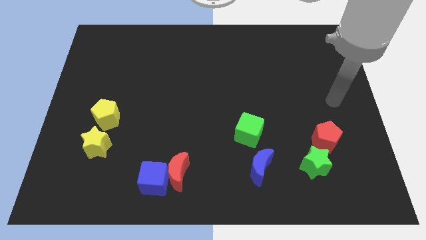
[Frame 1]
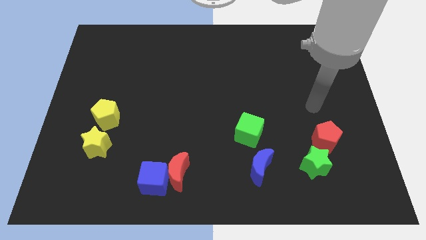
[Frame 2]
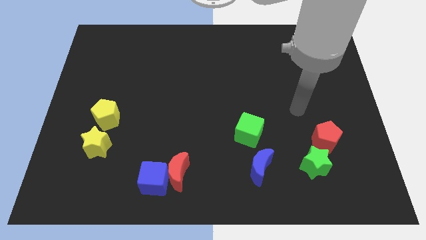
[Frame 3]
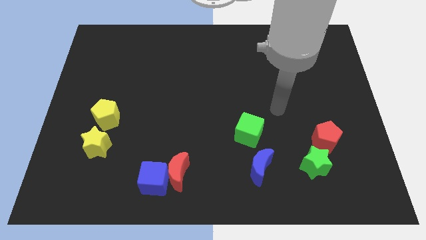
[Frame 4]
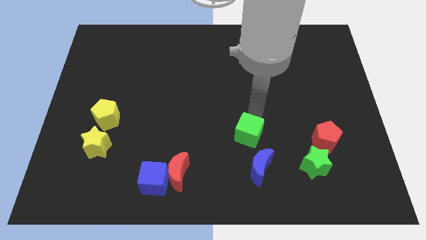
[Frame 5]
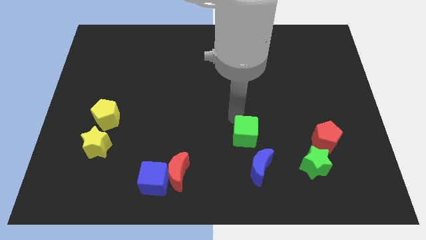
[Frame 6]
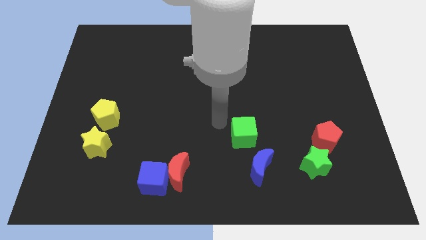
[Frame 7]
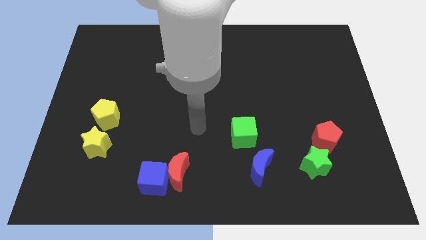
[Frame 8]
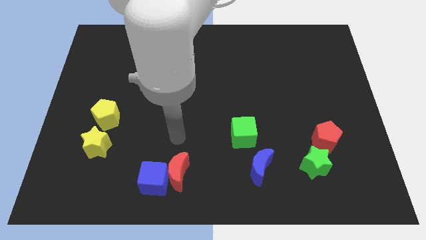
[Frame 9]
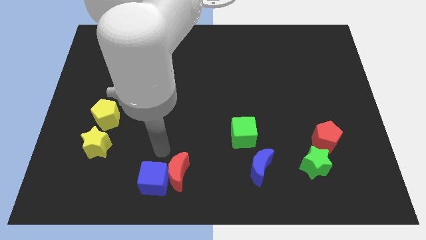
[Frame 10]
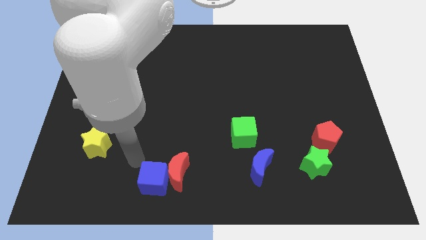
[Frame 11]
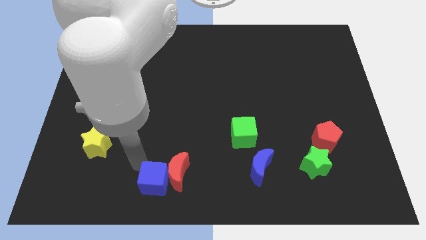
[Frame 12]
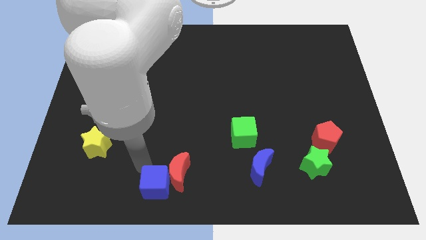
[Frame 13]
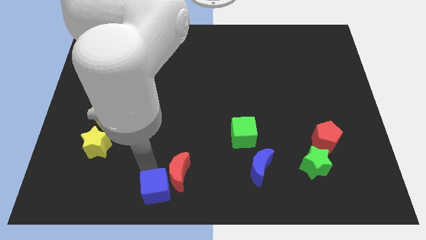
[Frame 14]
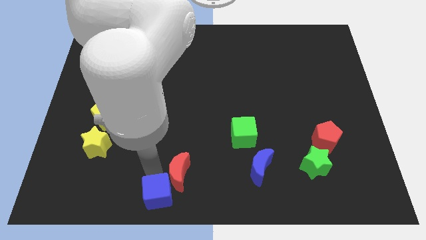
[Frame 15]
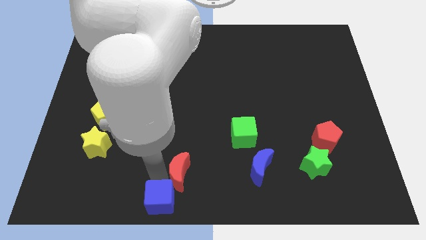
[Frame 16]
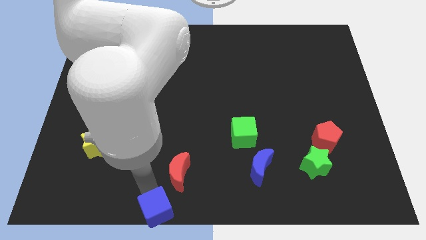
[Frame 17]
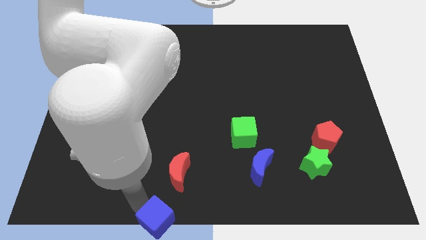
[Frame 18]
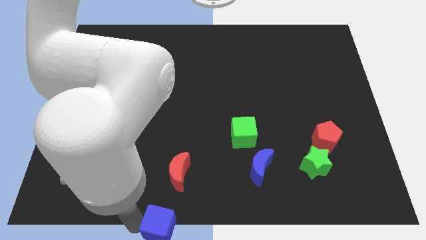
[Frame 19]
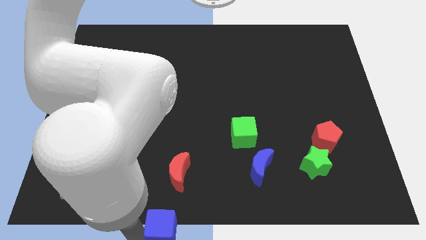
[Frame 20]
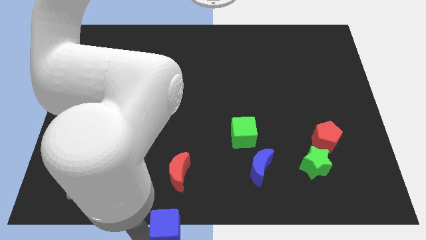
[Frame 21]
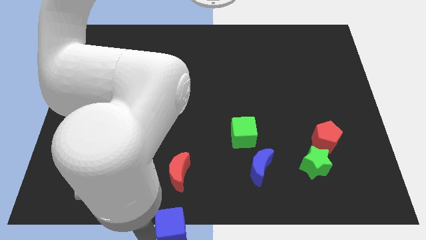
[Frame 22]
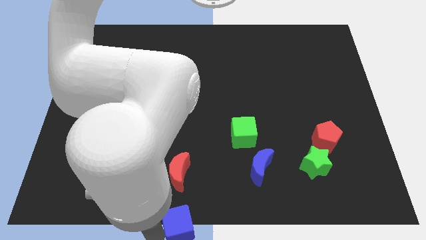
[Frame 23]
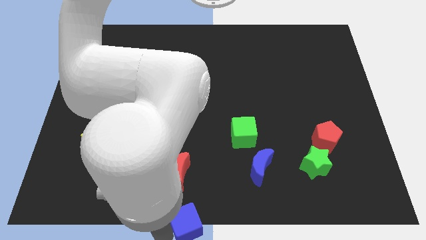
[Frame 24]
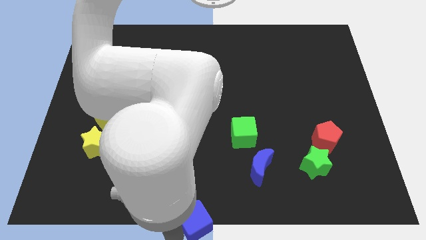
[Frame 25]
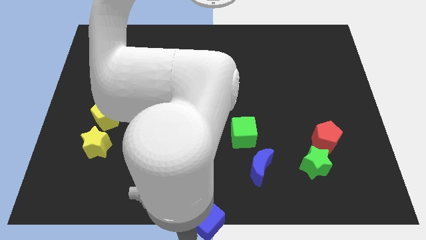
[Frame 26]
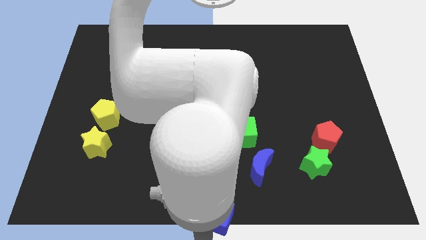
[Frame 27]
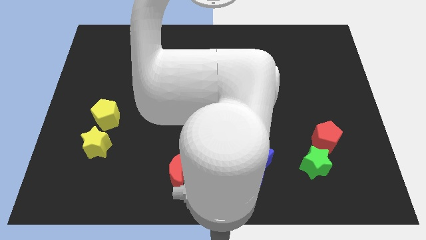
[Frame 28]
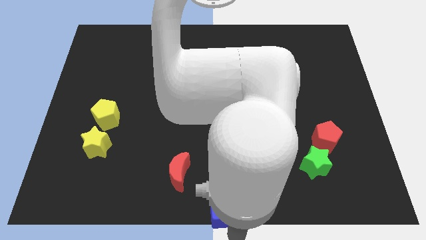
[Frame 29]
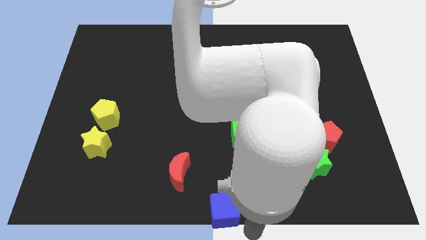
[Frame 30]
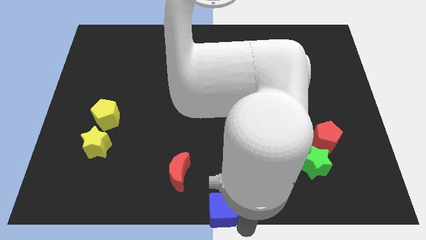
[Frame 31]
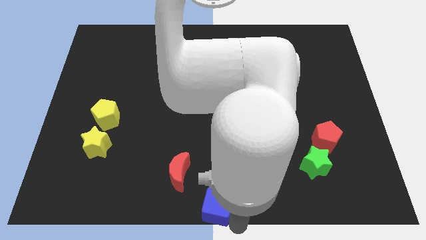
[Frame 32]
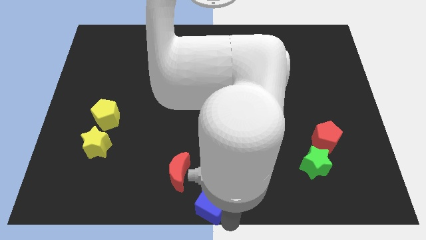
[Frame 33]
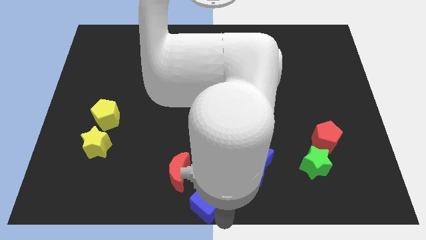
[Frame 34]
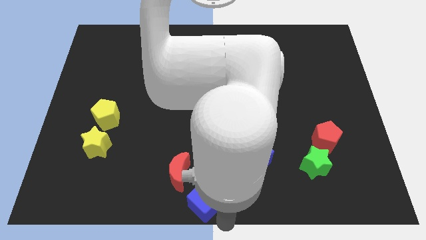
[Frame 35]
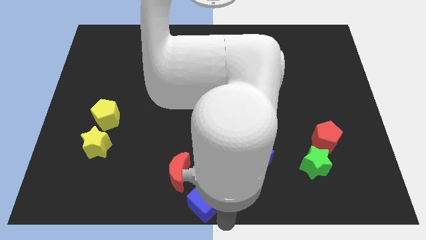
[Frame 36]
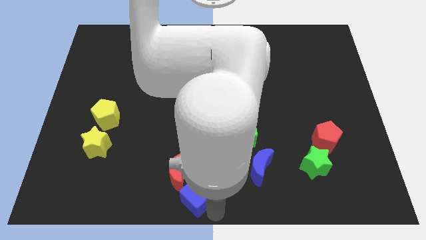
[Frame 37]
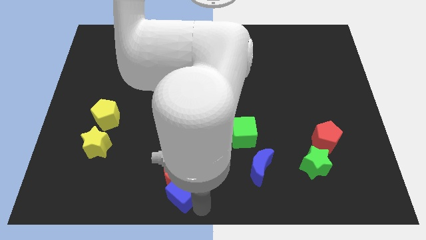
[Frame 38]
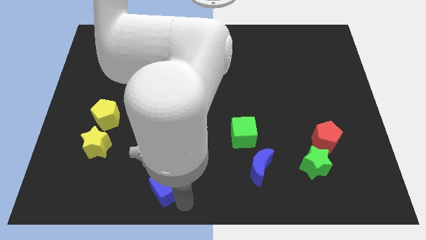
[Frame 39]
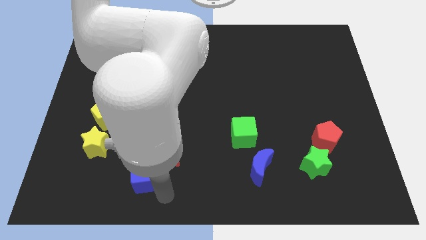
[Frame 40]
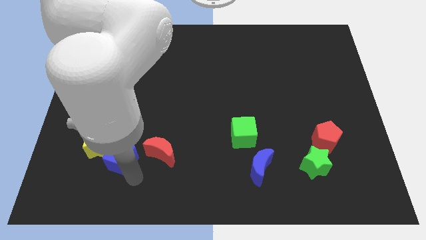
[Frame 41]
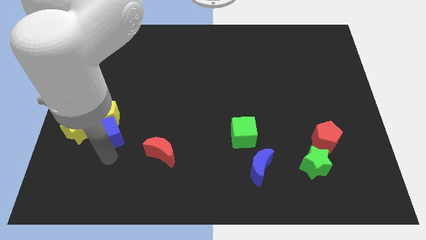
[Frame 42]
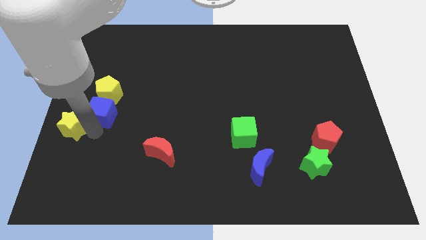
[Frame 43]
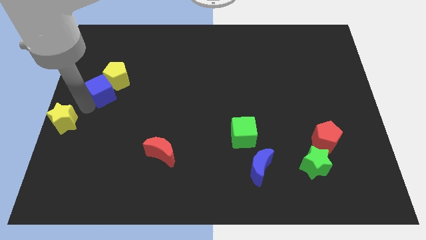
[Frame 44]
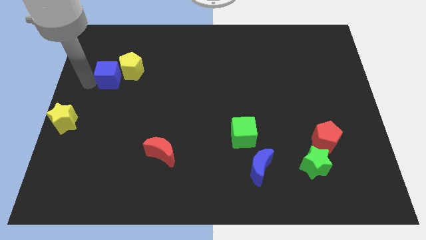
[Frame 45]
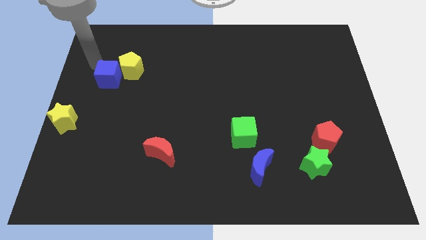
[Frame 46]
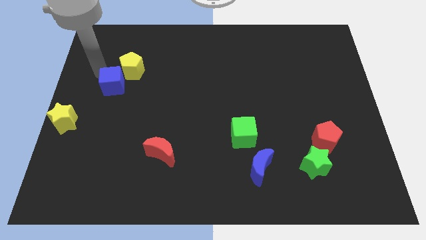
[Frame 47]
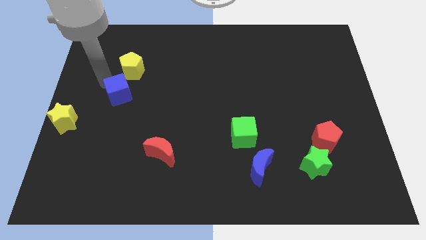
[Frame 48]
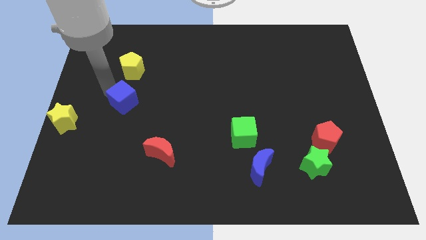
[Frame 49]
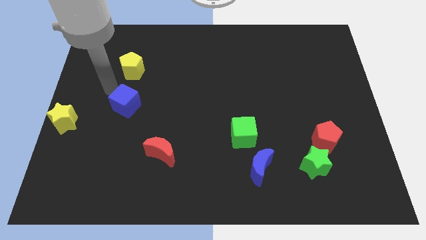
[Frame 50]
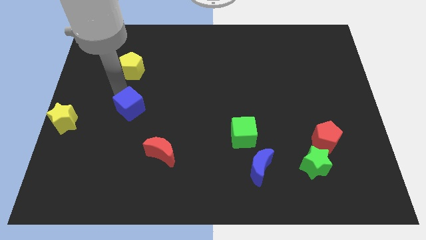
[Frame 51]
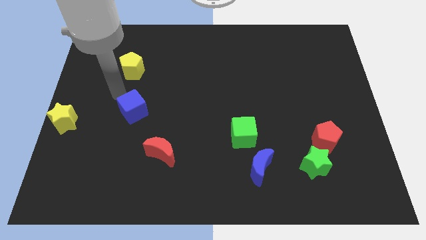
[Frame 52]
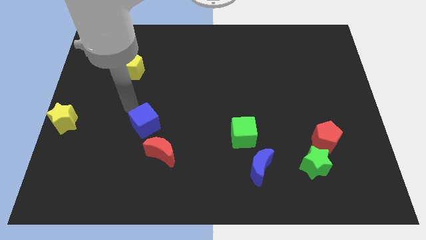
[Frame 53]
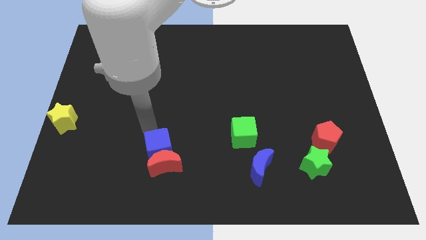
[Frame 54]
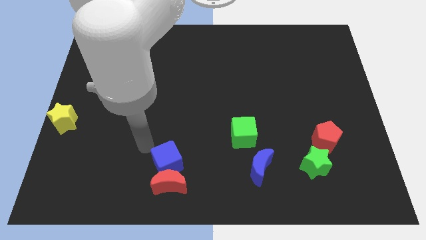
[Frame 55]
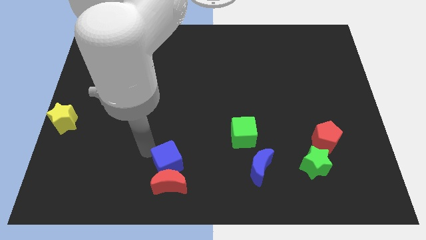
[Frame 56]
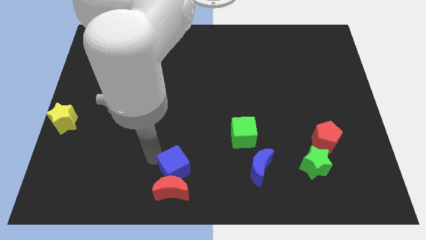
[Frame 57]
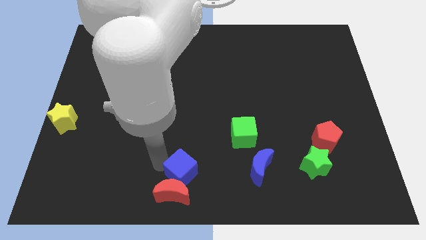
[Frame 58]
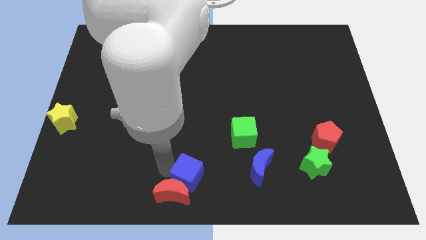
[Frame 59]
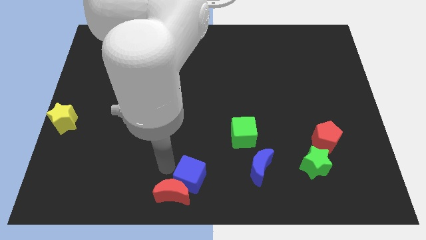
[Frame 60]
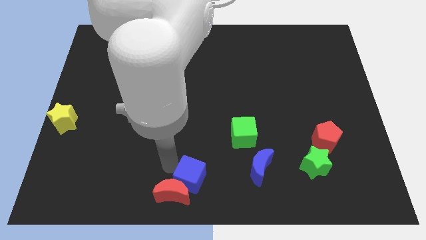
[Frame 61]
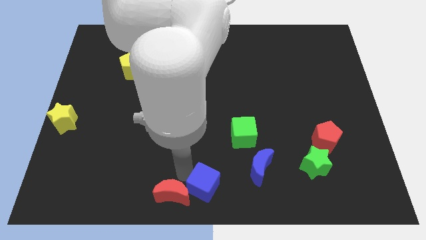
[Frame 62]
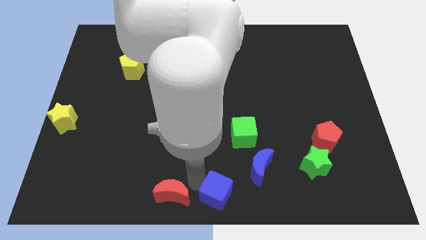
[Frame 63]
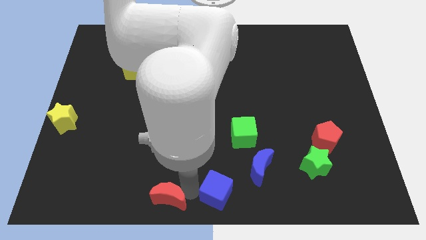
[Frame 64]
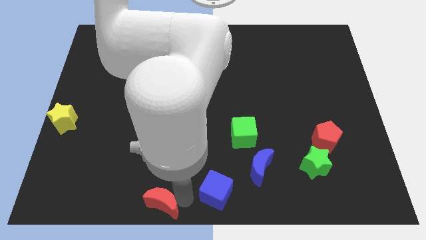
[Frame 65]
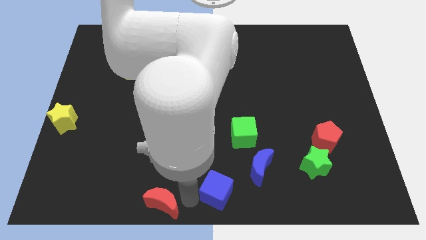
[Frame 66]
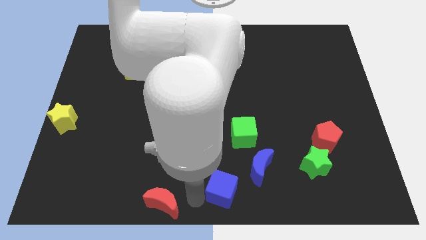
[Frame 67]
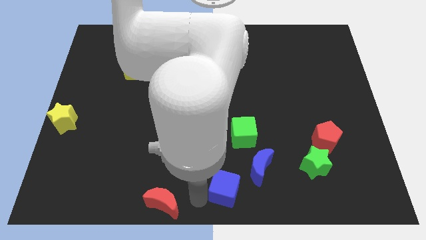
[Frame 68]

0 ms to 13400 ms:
slide the blue cube to the bottom of the green cube
